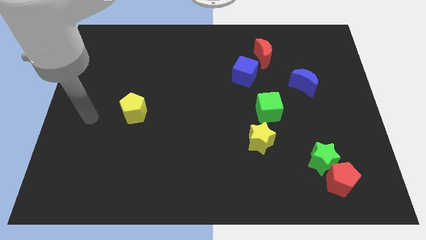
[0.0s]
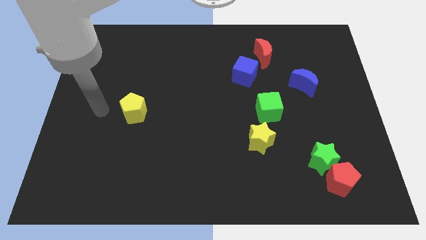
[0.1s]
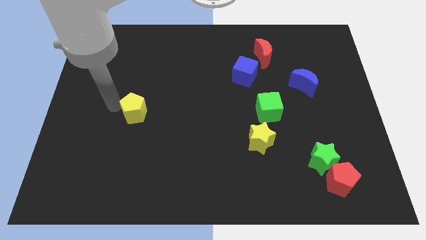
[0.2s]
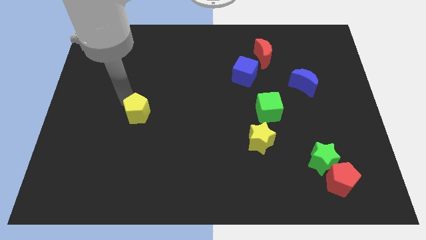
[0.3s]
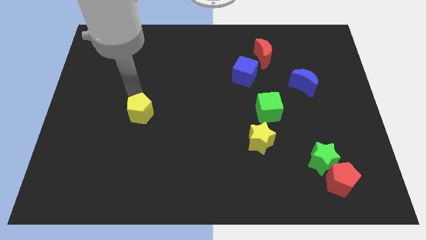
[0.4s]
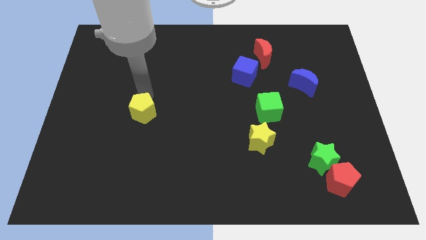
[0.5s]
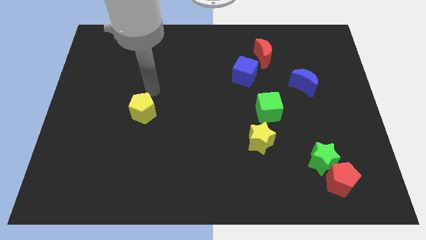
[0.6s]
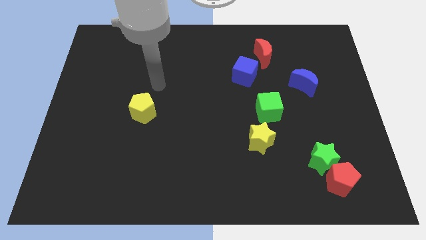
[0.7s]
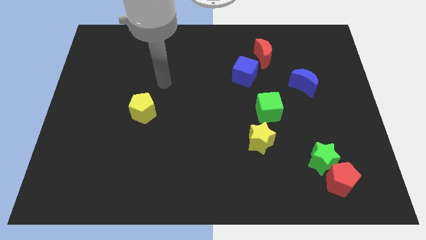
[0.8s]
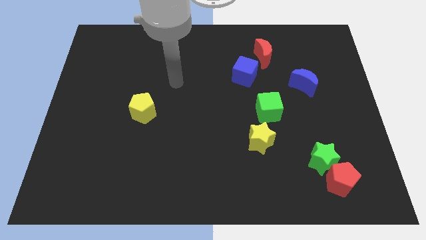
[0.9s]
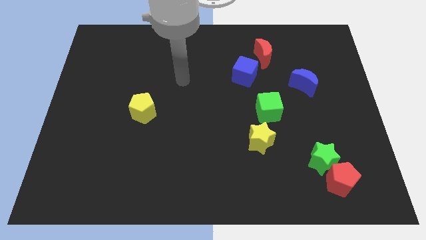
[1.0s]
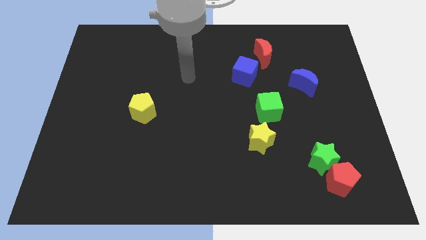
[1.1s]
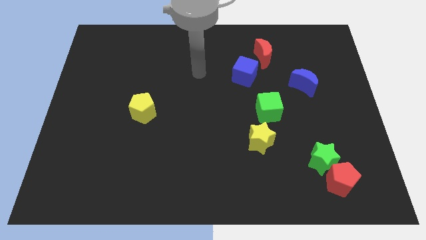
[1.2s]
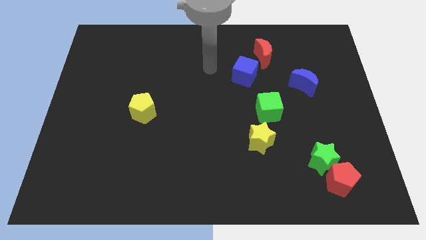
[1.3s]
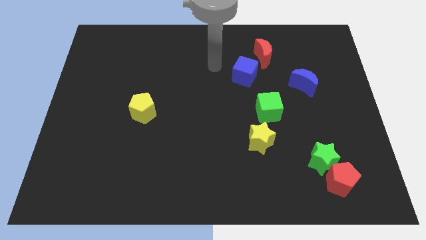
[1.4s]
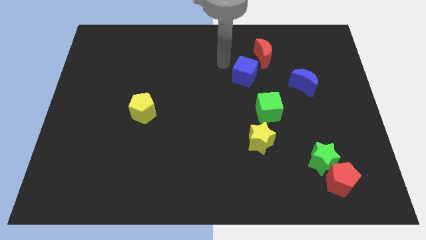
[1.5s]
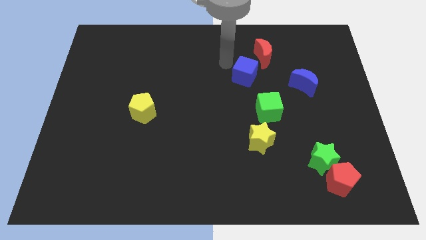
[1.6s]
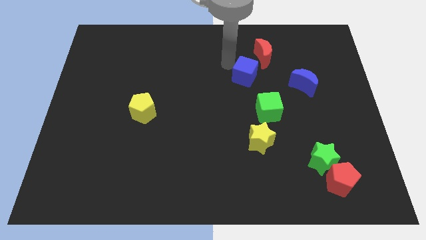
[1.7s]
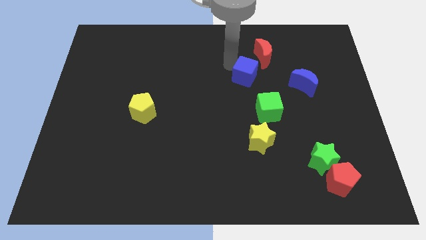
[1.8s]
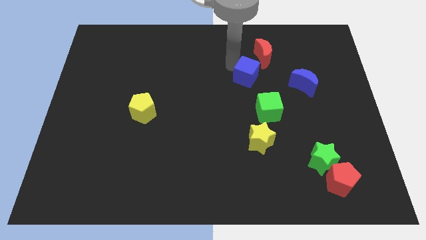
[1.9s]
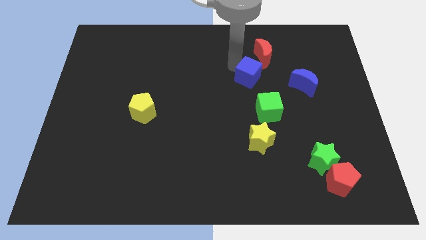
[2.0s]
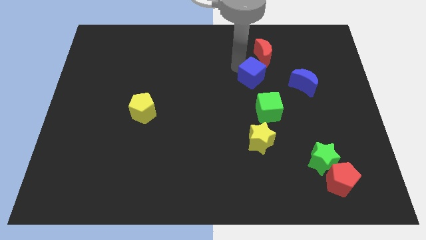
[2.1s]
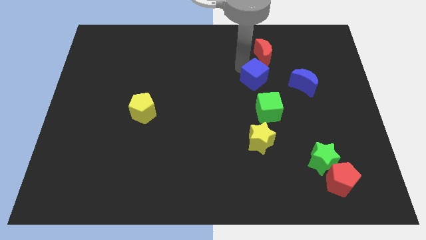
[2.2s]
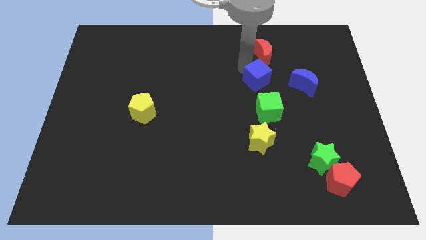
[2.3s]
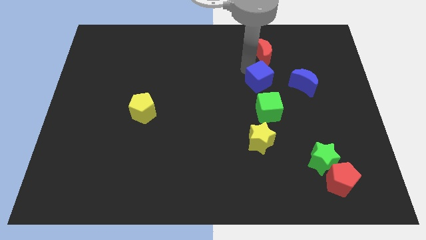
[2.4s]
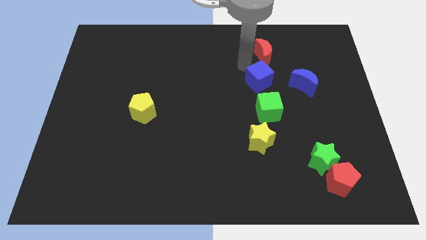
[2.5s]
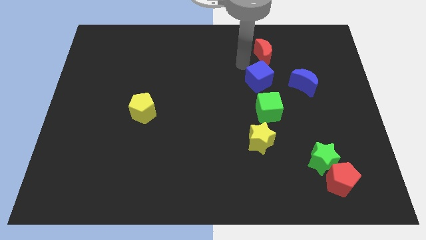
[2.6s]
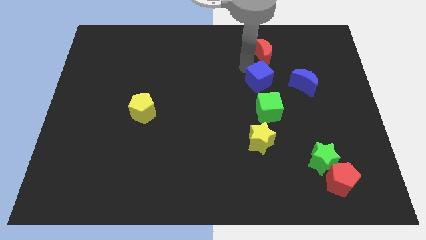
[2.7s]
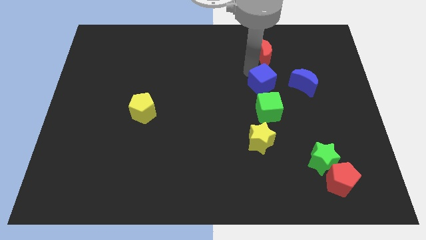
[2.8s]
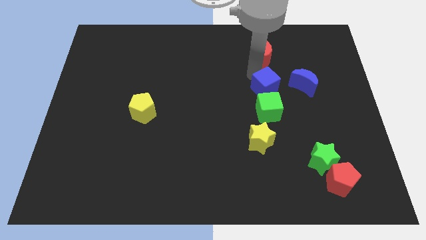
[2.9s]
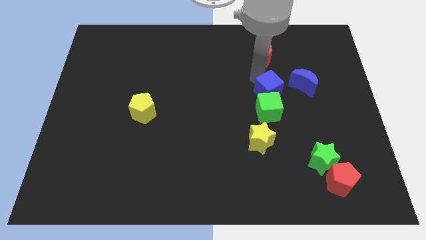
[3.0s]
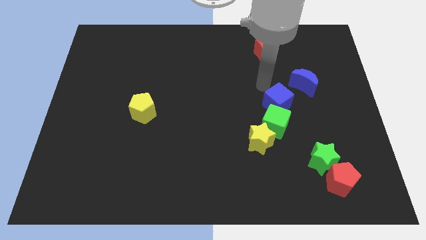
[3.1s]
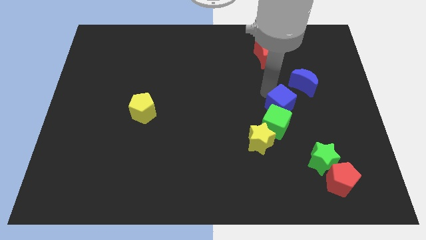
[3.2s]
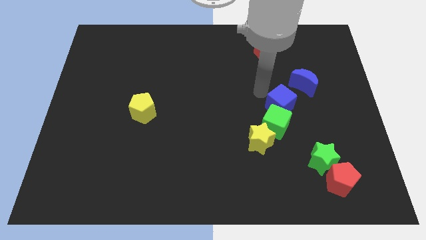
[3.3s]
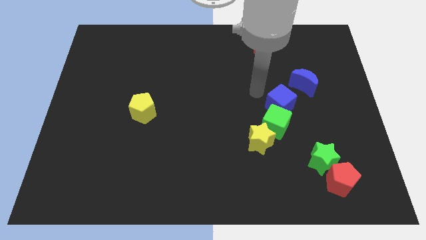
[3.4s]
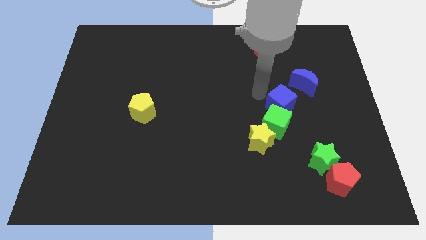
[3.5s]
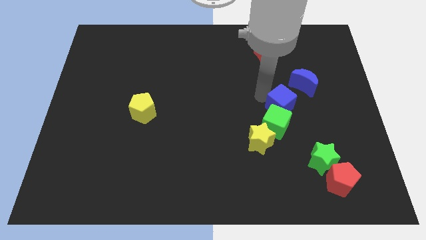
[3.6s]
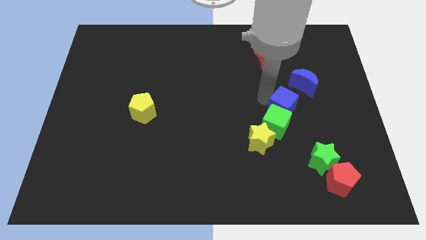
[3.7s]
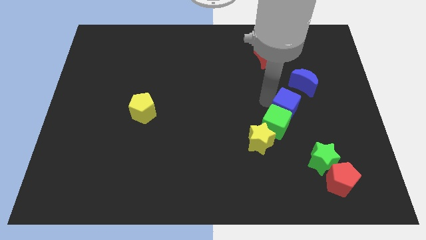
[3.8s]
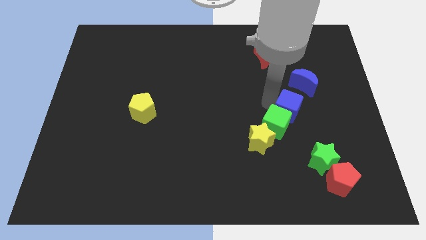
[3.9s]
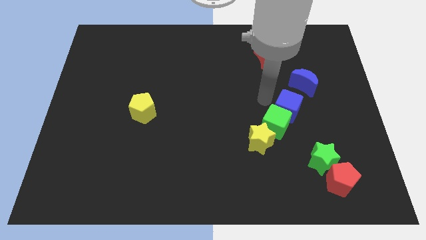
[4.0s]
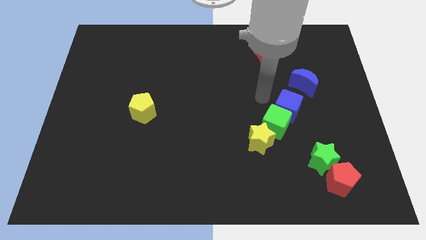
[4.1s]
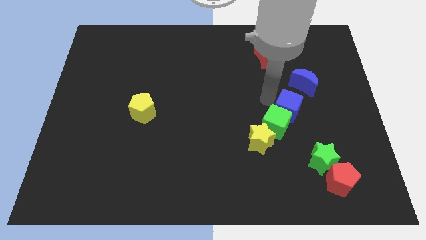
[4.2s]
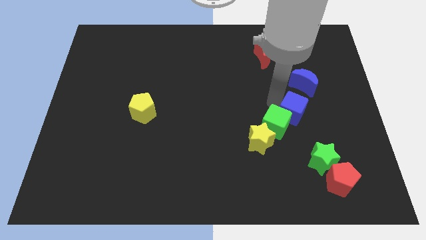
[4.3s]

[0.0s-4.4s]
slide the blue cube to the top of the green star

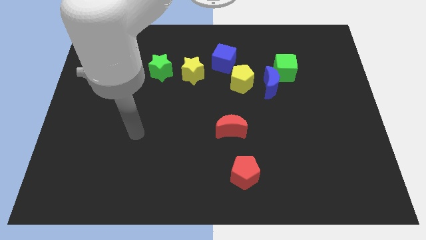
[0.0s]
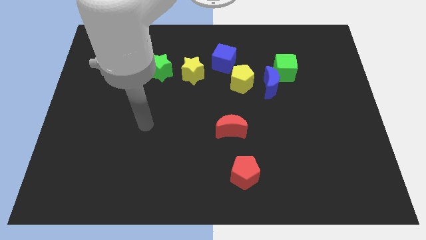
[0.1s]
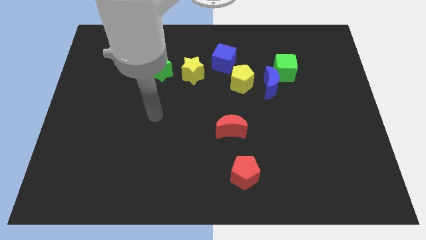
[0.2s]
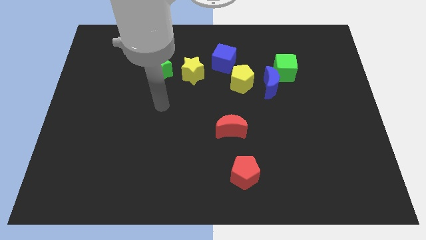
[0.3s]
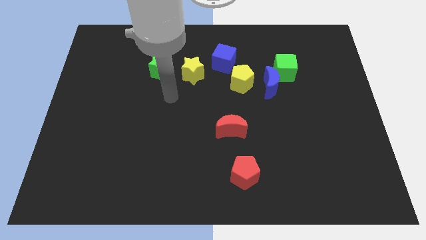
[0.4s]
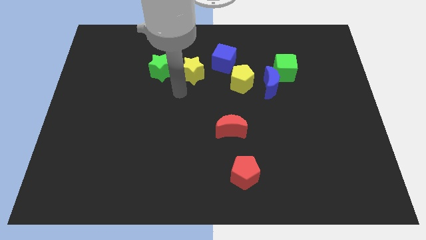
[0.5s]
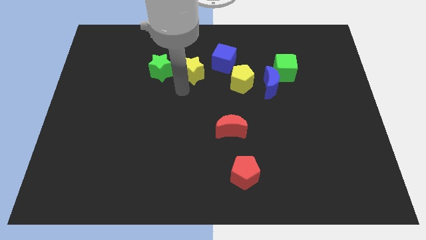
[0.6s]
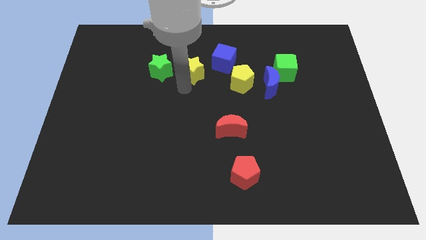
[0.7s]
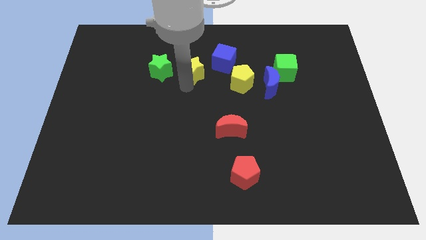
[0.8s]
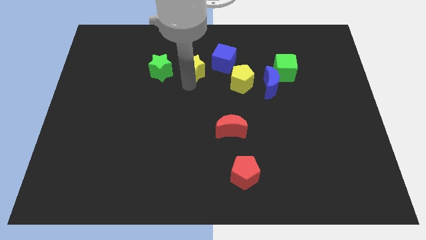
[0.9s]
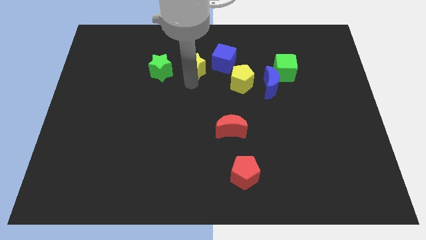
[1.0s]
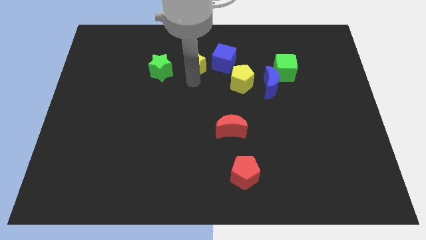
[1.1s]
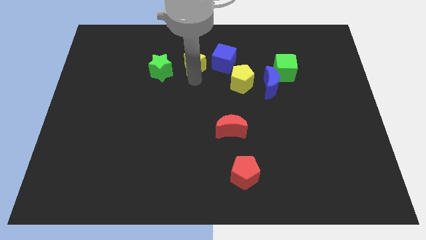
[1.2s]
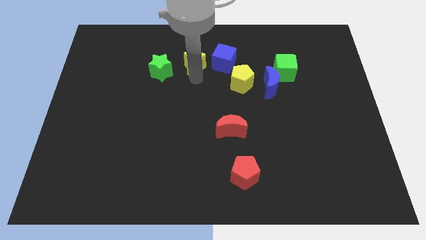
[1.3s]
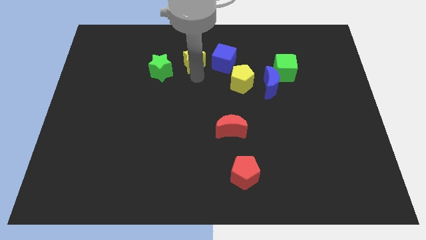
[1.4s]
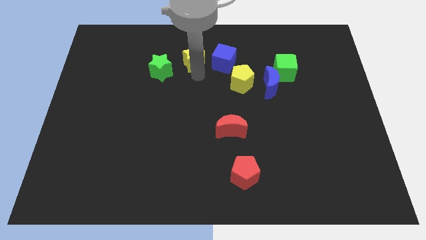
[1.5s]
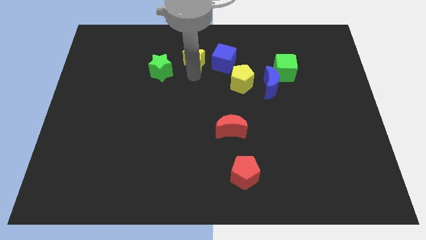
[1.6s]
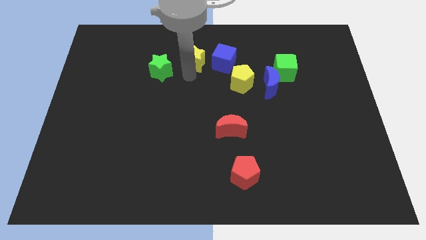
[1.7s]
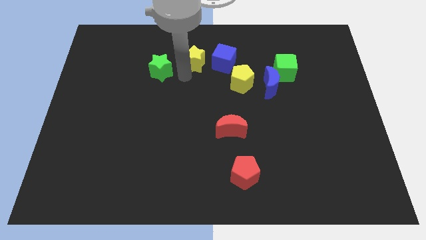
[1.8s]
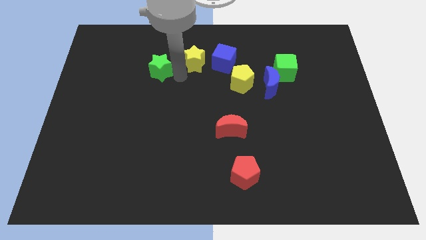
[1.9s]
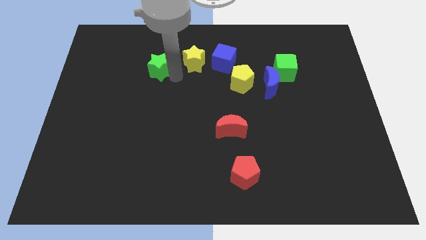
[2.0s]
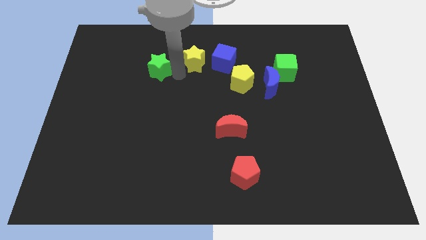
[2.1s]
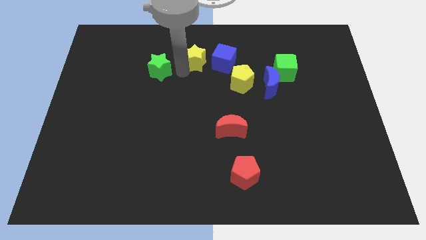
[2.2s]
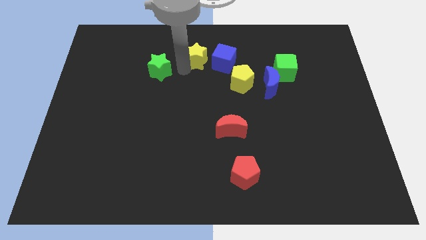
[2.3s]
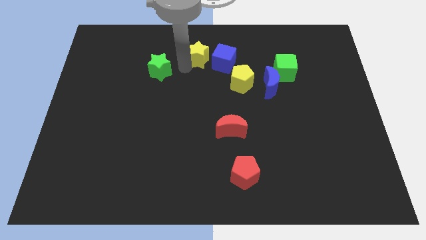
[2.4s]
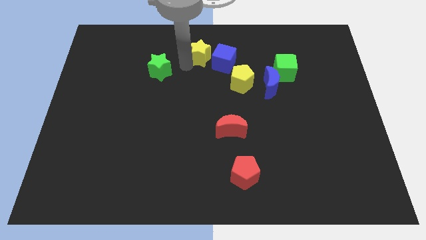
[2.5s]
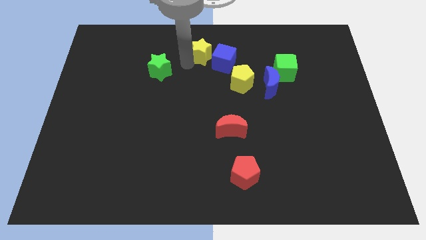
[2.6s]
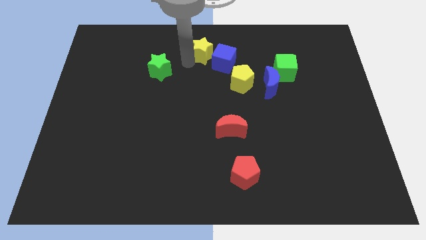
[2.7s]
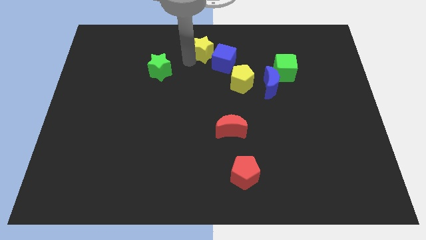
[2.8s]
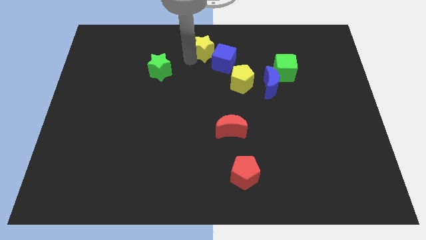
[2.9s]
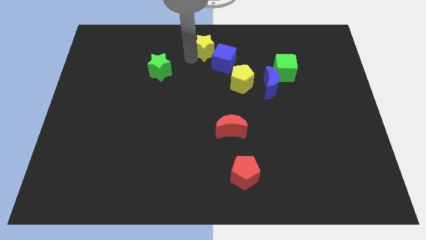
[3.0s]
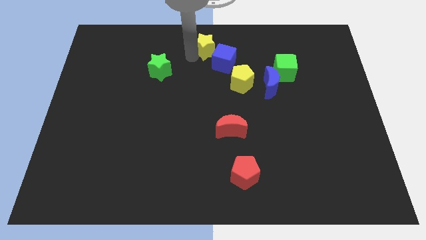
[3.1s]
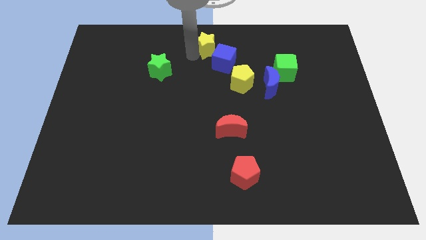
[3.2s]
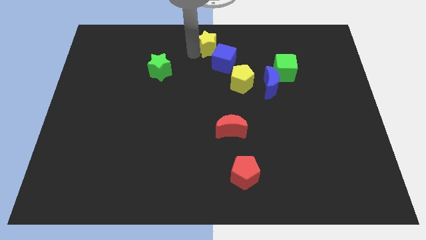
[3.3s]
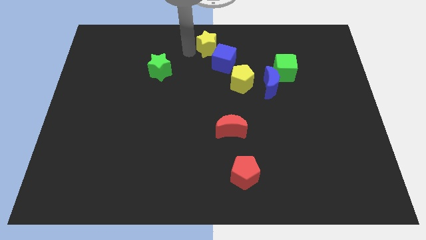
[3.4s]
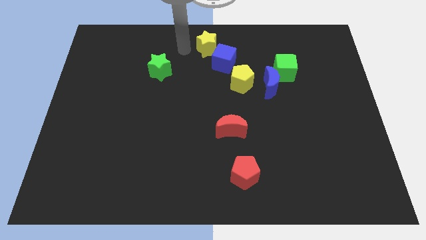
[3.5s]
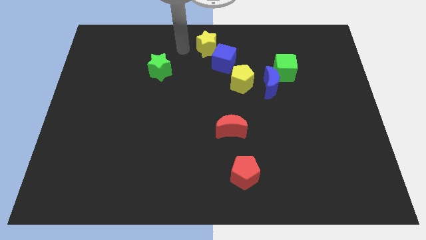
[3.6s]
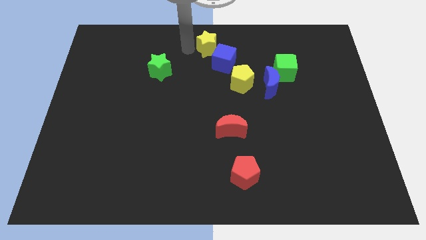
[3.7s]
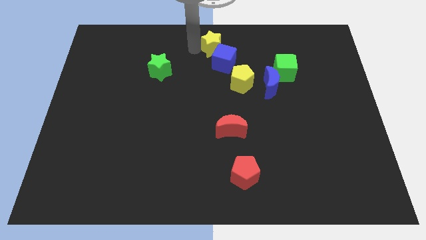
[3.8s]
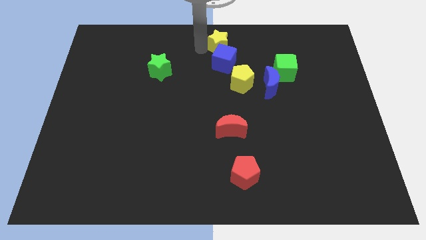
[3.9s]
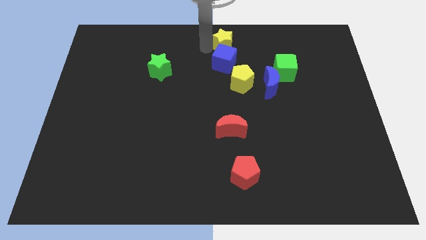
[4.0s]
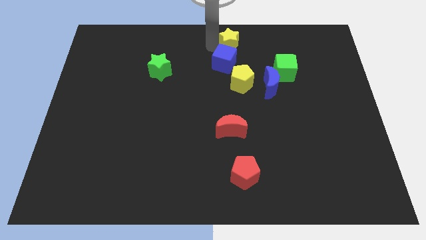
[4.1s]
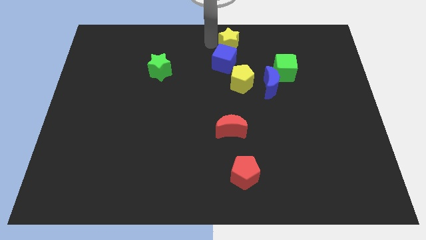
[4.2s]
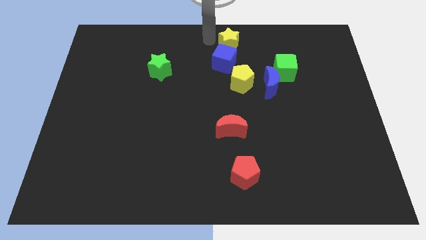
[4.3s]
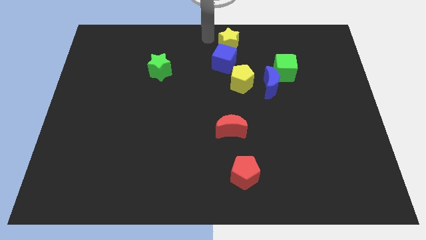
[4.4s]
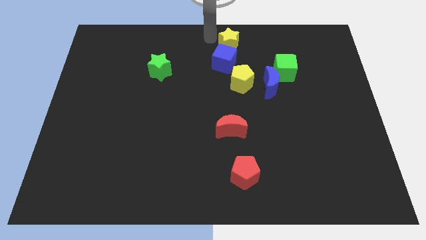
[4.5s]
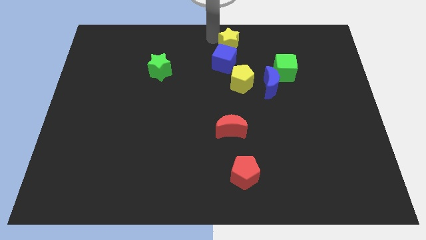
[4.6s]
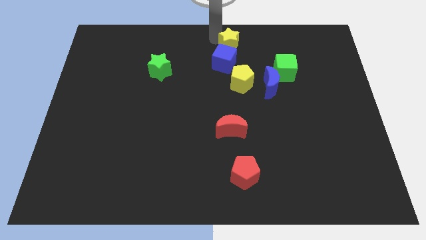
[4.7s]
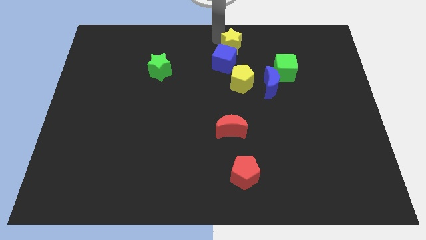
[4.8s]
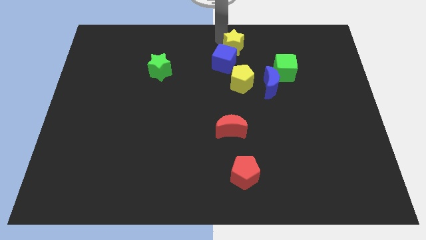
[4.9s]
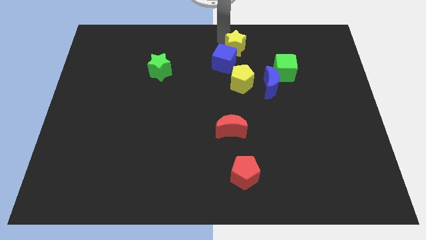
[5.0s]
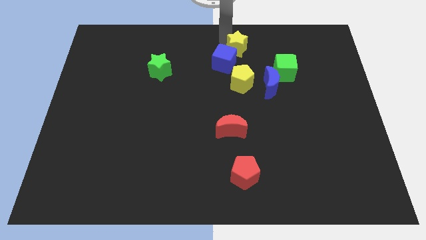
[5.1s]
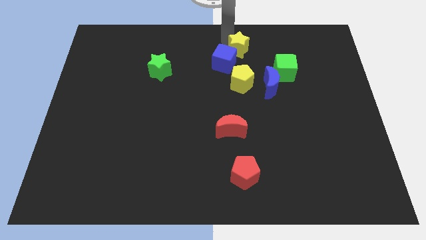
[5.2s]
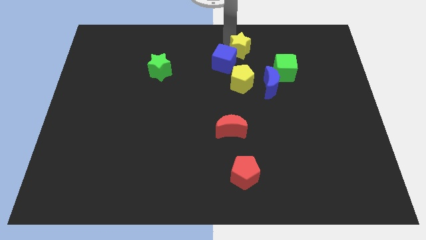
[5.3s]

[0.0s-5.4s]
push the yellow star to the right side of the blue cube
